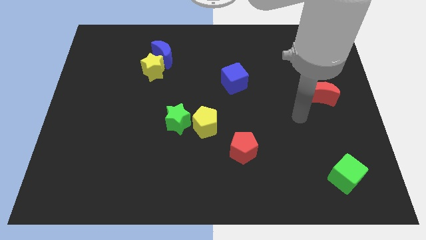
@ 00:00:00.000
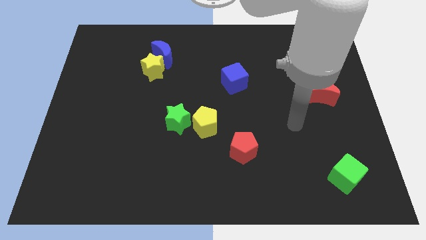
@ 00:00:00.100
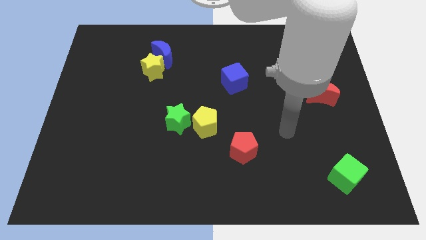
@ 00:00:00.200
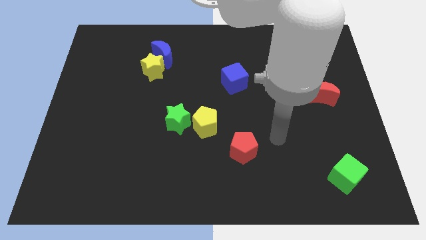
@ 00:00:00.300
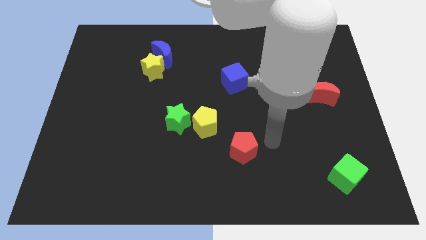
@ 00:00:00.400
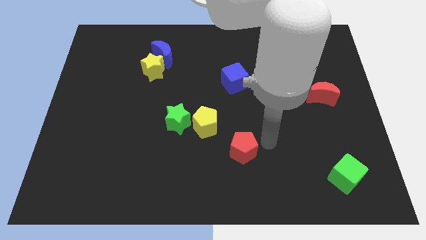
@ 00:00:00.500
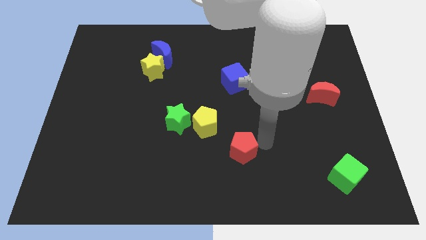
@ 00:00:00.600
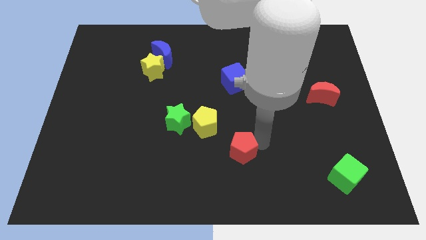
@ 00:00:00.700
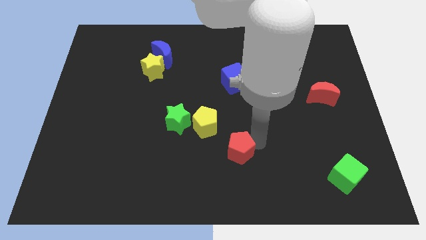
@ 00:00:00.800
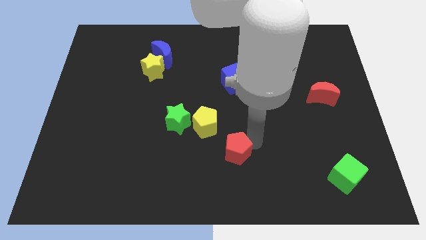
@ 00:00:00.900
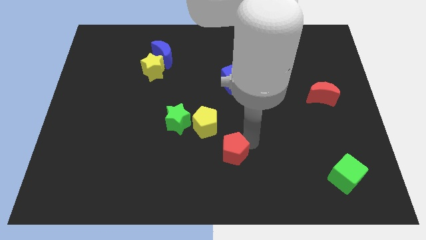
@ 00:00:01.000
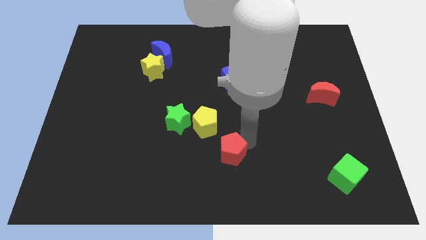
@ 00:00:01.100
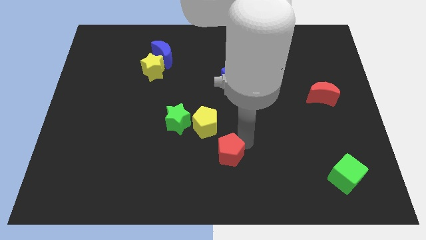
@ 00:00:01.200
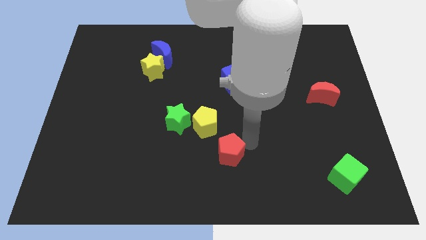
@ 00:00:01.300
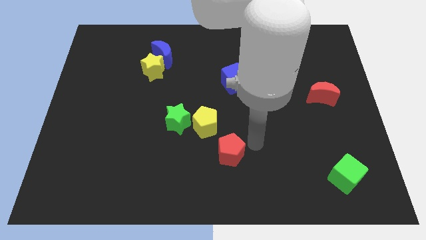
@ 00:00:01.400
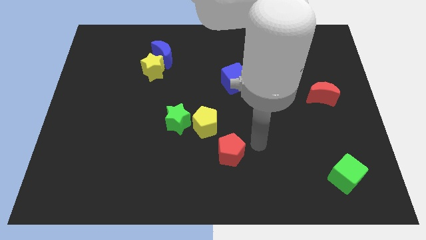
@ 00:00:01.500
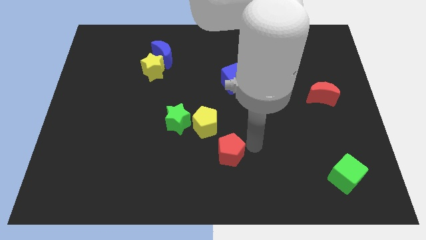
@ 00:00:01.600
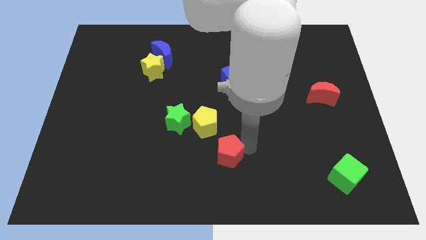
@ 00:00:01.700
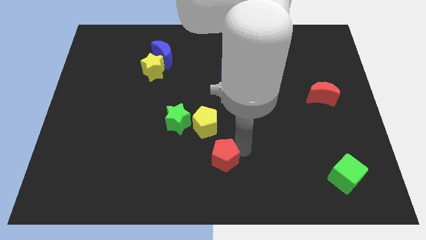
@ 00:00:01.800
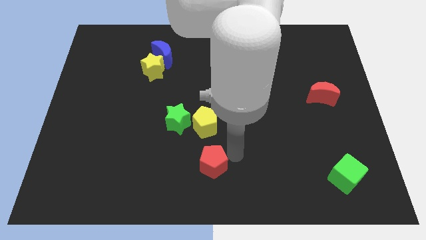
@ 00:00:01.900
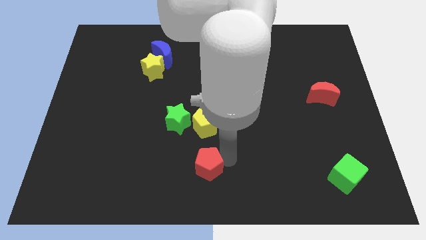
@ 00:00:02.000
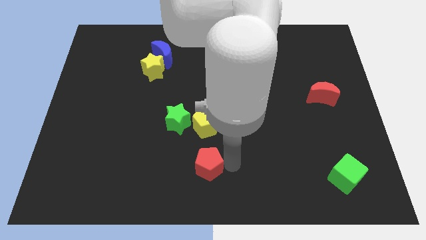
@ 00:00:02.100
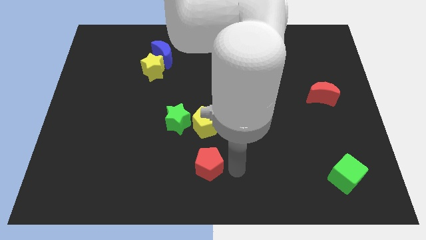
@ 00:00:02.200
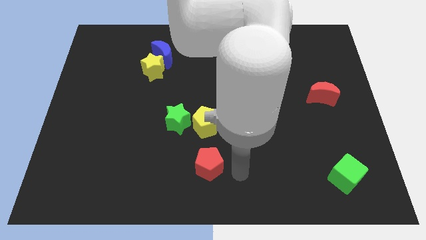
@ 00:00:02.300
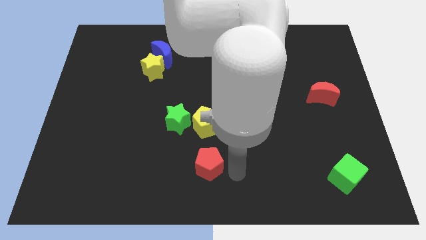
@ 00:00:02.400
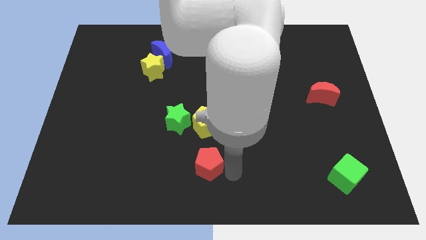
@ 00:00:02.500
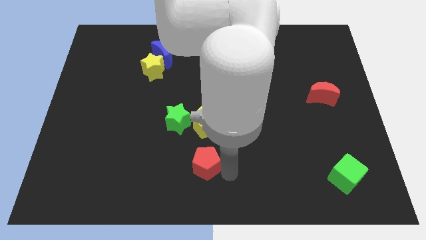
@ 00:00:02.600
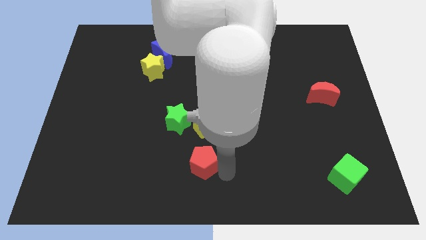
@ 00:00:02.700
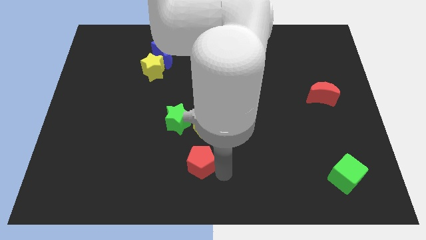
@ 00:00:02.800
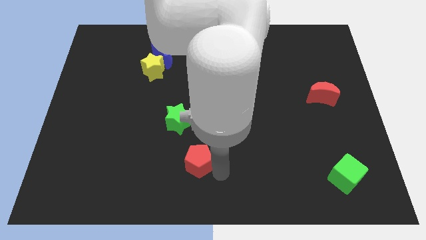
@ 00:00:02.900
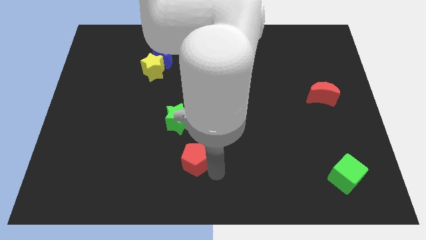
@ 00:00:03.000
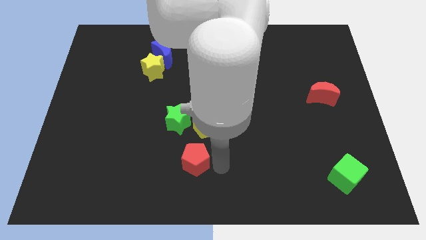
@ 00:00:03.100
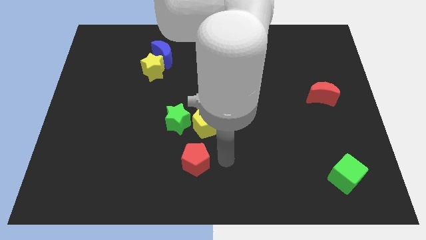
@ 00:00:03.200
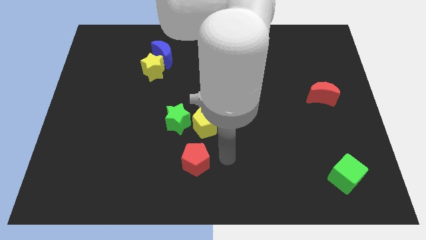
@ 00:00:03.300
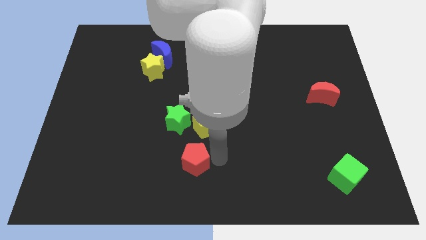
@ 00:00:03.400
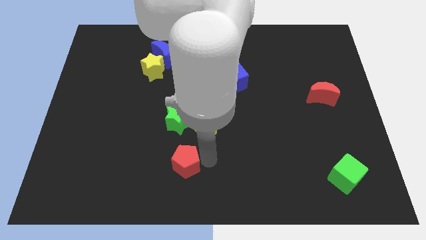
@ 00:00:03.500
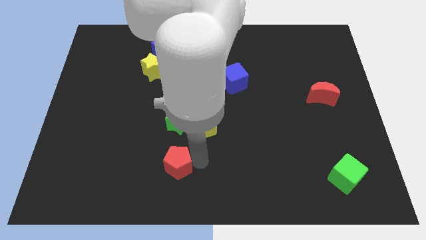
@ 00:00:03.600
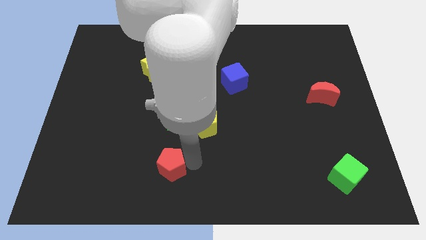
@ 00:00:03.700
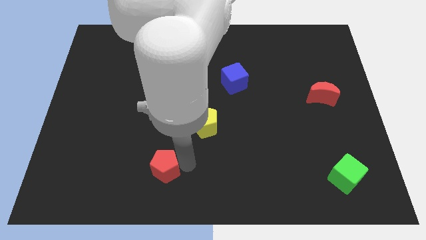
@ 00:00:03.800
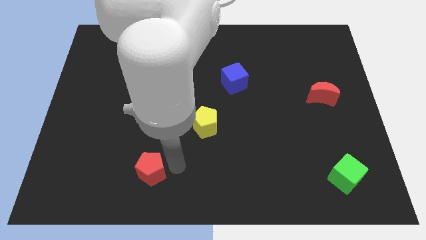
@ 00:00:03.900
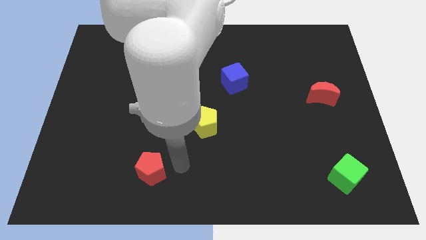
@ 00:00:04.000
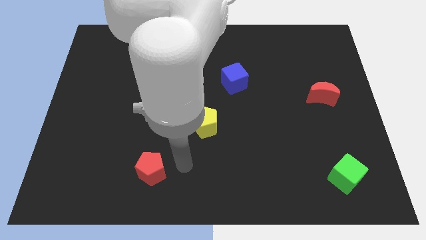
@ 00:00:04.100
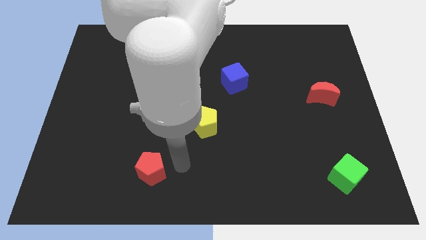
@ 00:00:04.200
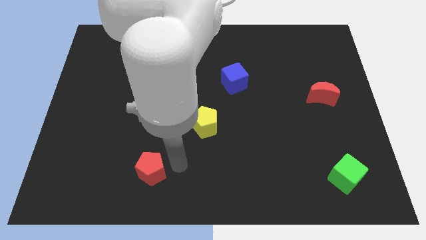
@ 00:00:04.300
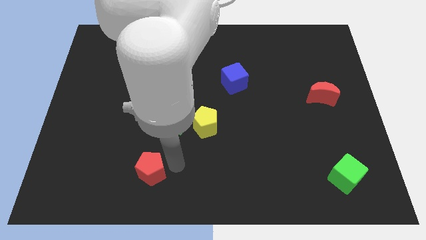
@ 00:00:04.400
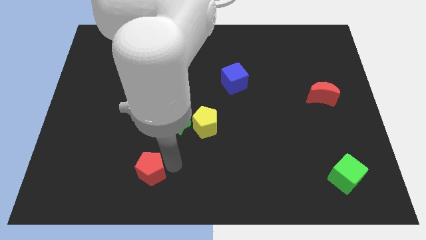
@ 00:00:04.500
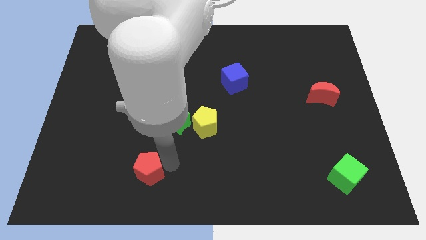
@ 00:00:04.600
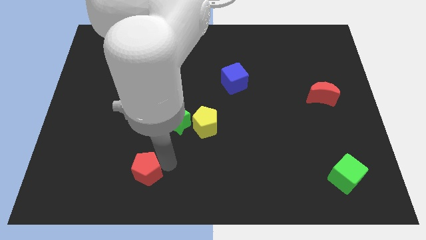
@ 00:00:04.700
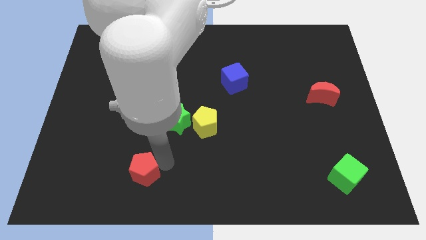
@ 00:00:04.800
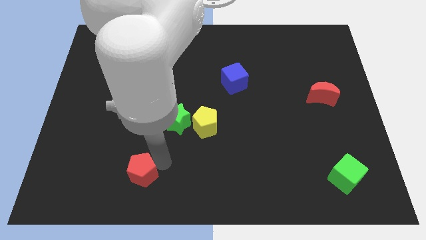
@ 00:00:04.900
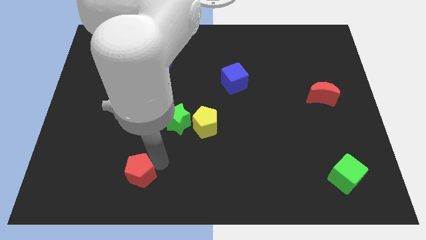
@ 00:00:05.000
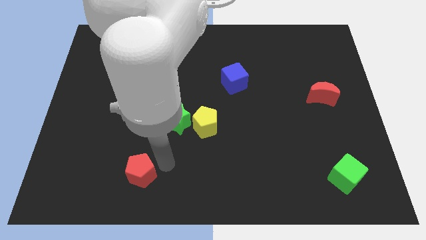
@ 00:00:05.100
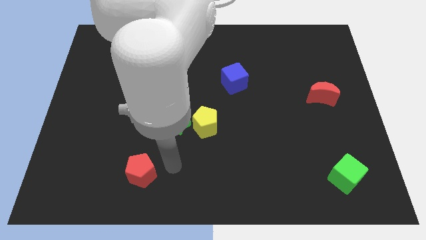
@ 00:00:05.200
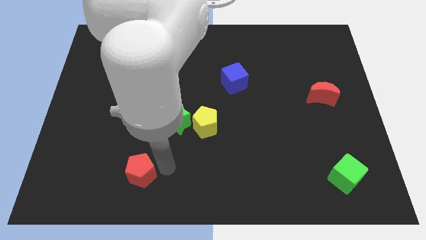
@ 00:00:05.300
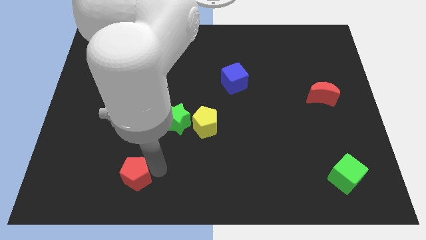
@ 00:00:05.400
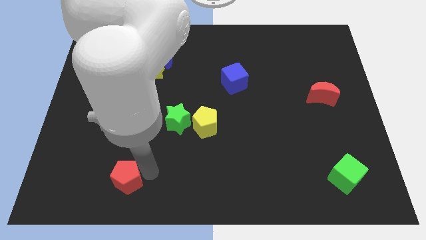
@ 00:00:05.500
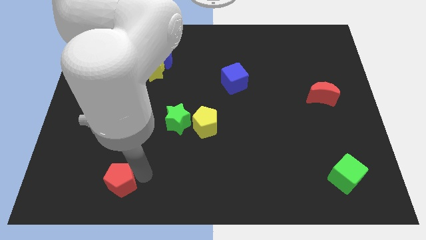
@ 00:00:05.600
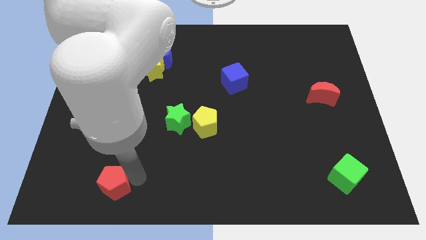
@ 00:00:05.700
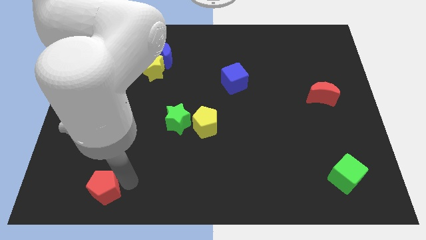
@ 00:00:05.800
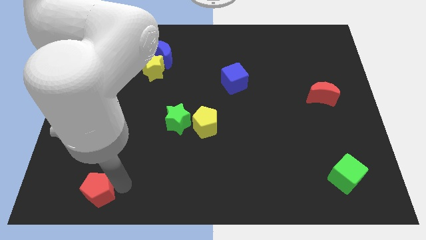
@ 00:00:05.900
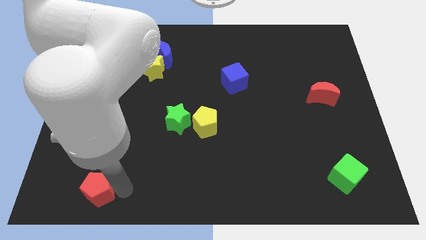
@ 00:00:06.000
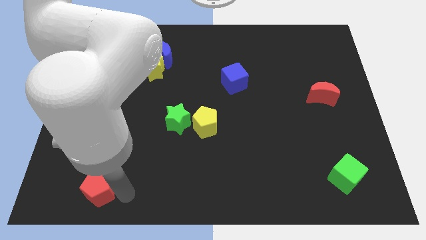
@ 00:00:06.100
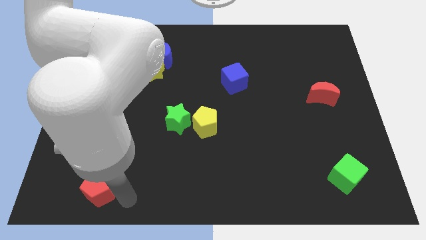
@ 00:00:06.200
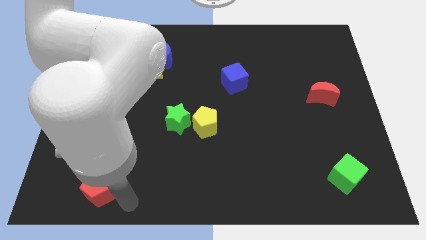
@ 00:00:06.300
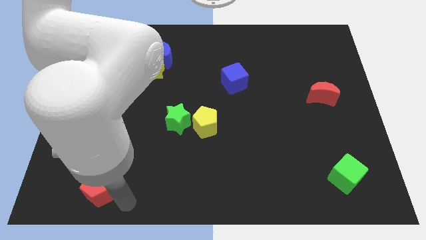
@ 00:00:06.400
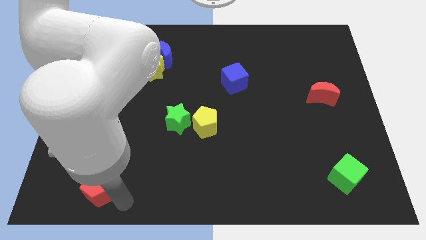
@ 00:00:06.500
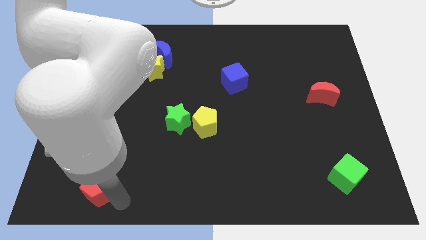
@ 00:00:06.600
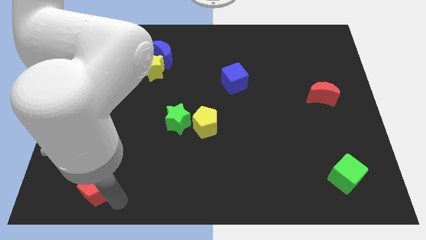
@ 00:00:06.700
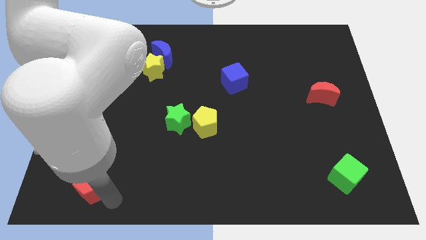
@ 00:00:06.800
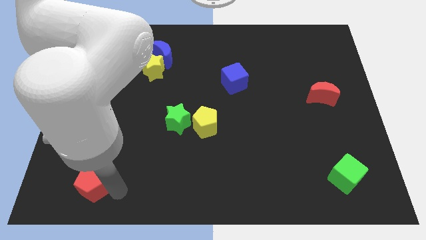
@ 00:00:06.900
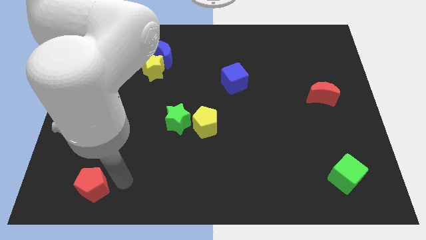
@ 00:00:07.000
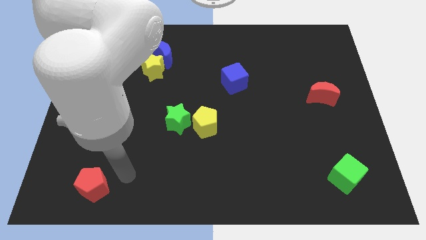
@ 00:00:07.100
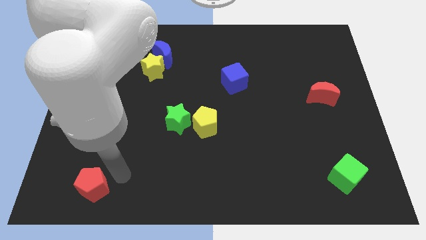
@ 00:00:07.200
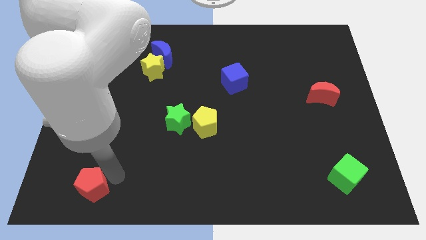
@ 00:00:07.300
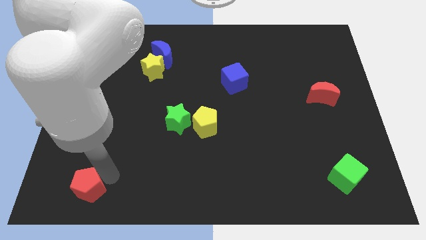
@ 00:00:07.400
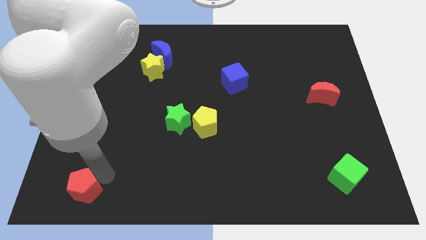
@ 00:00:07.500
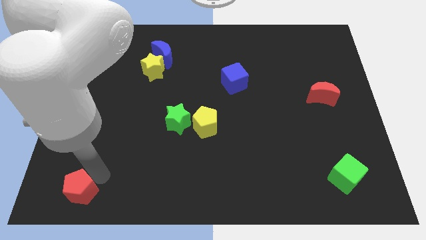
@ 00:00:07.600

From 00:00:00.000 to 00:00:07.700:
push the red pentagon to the bottom left of the board
